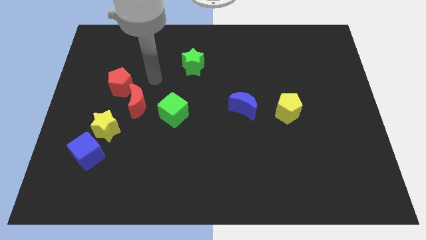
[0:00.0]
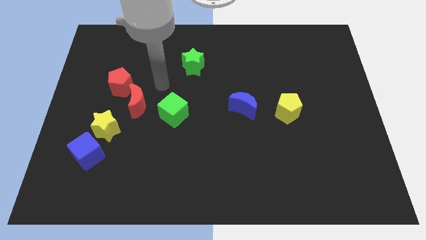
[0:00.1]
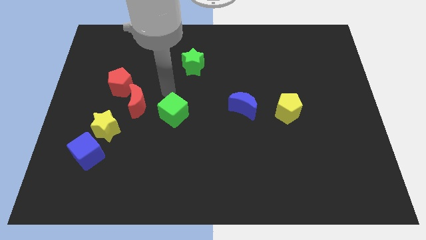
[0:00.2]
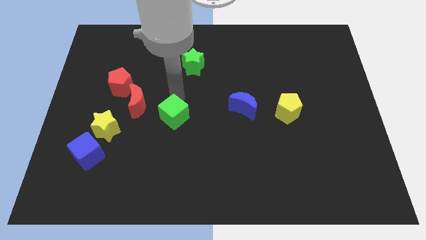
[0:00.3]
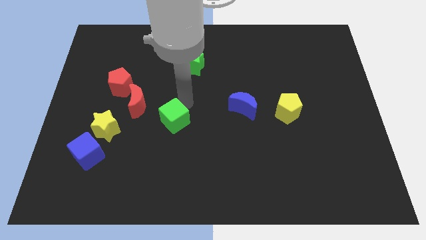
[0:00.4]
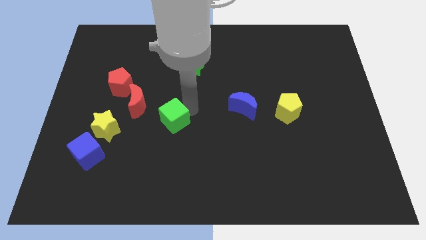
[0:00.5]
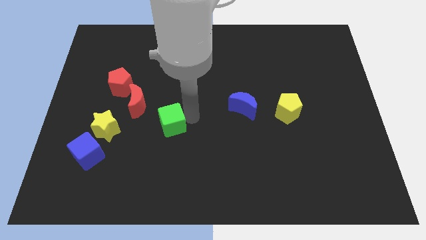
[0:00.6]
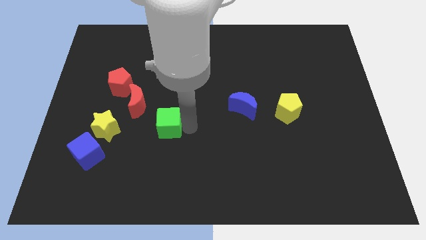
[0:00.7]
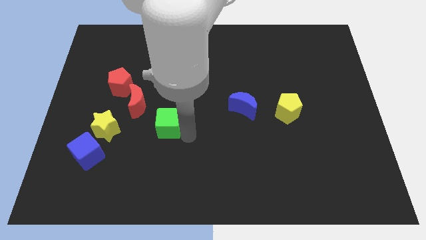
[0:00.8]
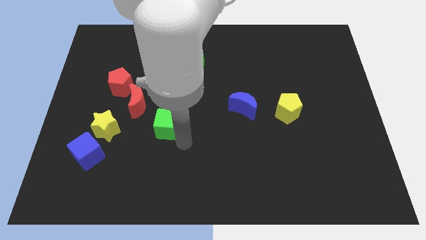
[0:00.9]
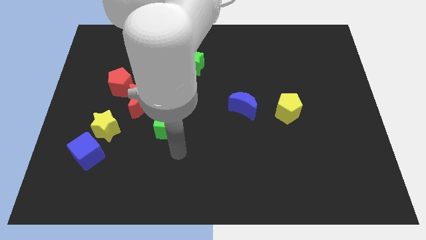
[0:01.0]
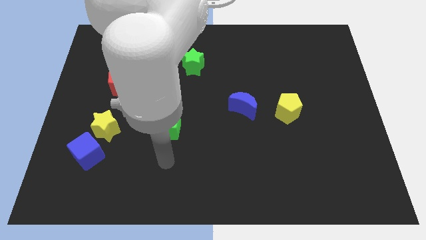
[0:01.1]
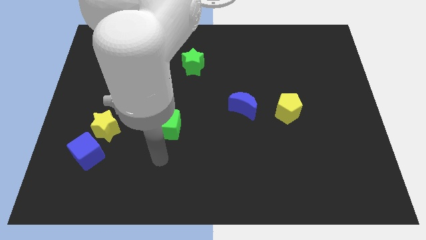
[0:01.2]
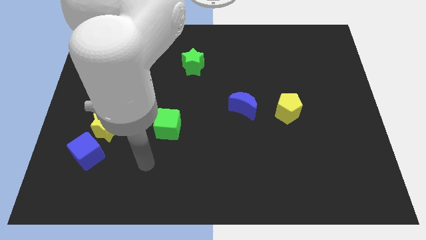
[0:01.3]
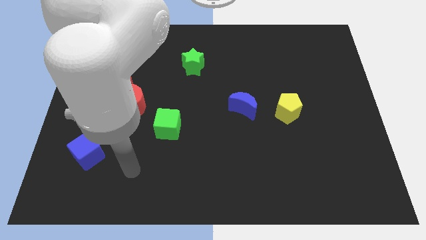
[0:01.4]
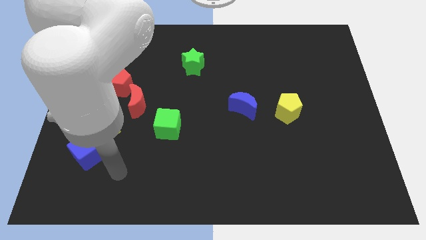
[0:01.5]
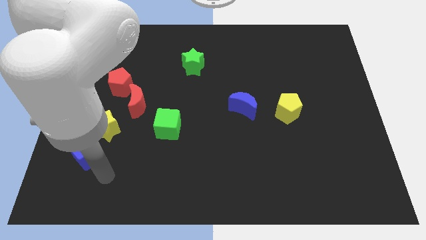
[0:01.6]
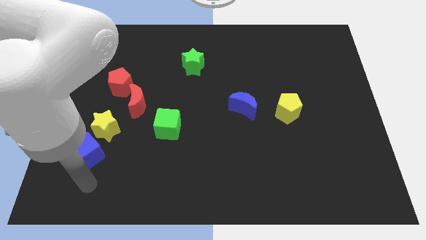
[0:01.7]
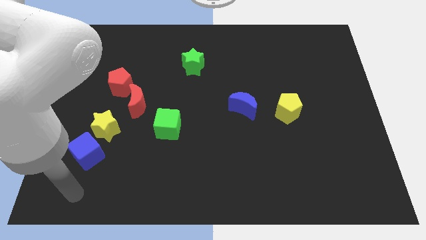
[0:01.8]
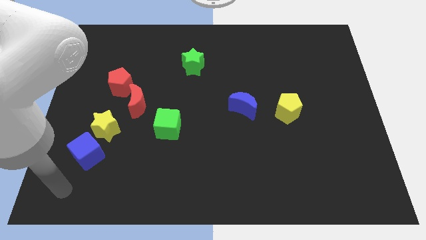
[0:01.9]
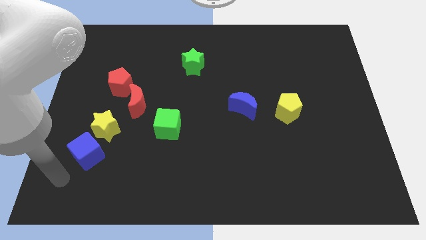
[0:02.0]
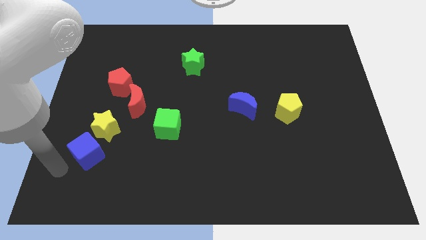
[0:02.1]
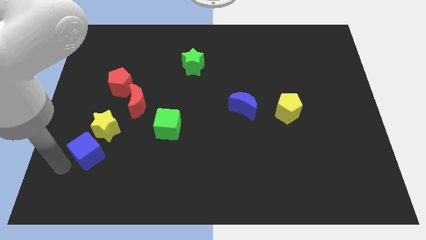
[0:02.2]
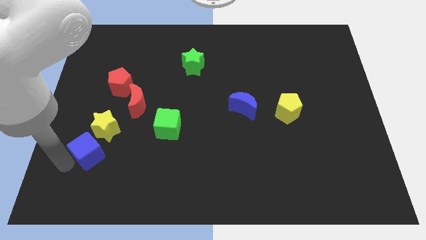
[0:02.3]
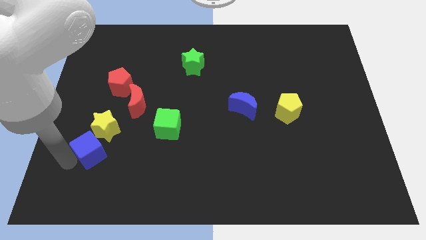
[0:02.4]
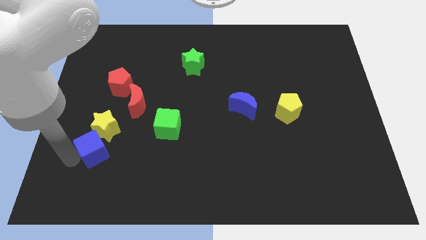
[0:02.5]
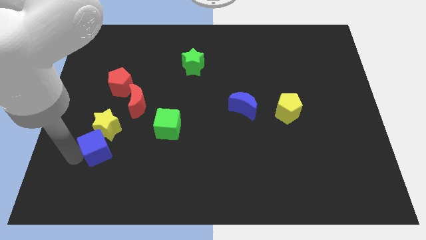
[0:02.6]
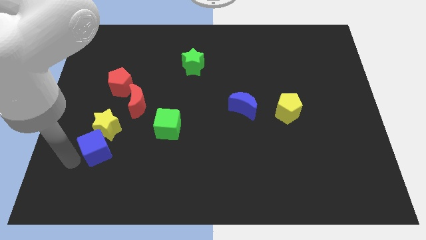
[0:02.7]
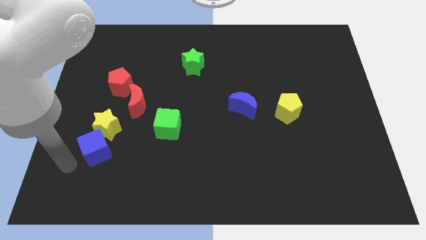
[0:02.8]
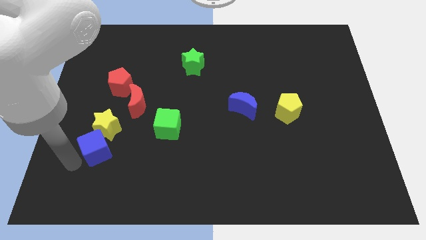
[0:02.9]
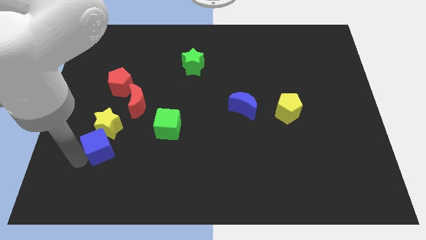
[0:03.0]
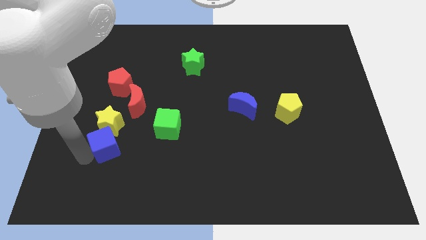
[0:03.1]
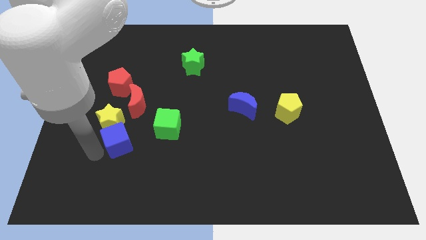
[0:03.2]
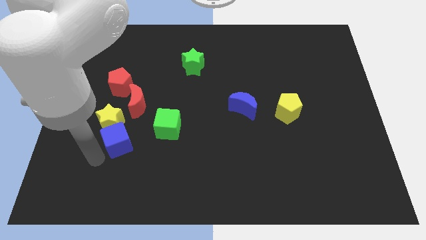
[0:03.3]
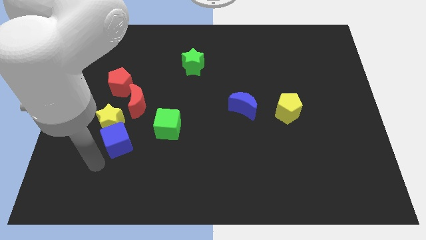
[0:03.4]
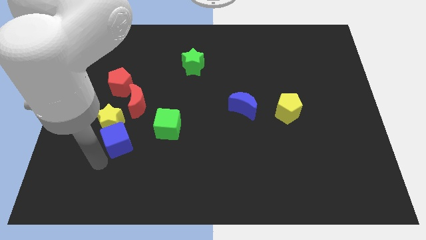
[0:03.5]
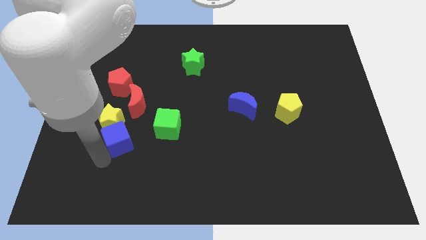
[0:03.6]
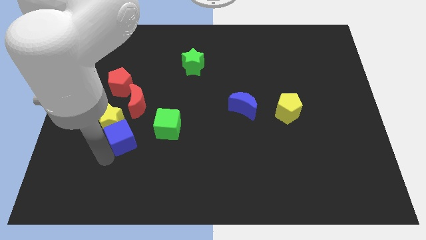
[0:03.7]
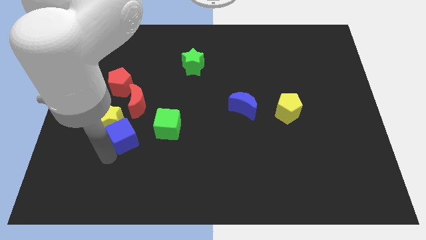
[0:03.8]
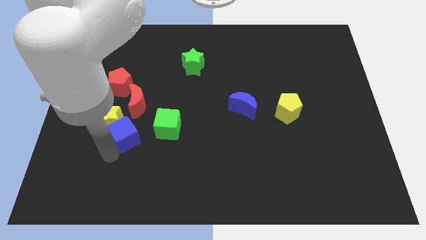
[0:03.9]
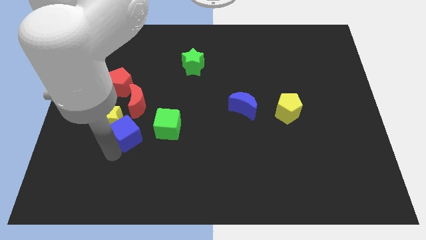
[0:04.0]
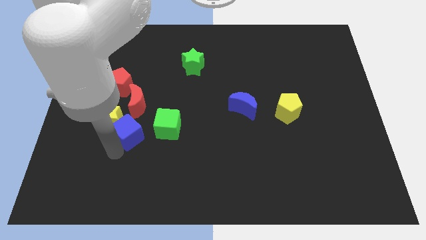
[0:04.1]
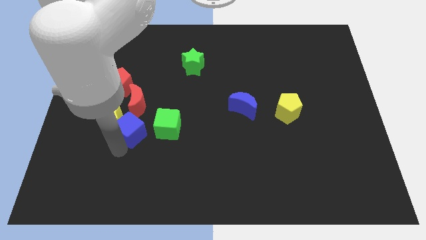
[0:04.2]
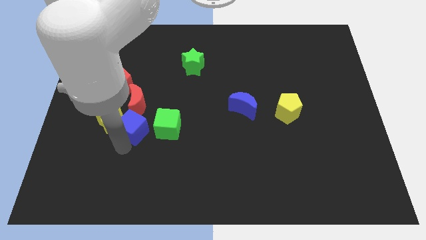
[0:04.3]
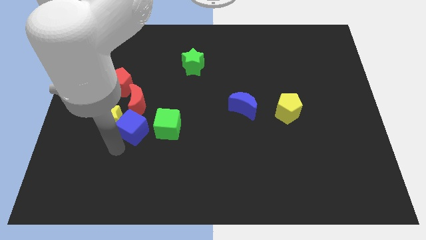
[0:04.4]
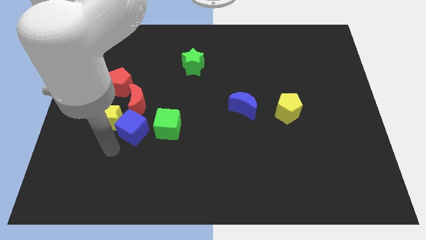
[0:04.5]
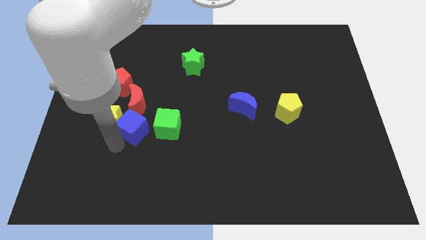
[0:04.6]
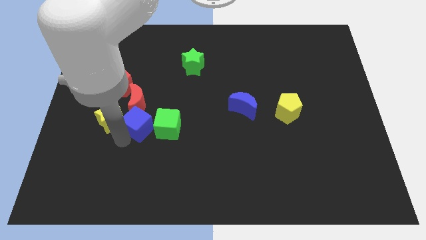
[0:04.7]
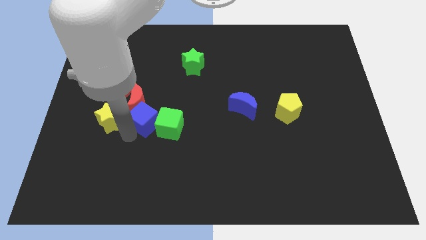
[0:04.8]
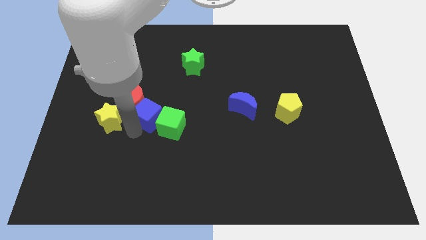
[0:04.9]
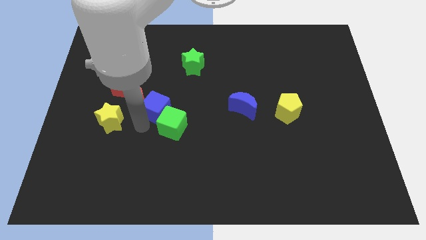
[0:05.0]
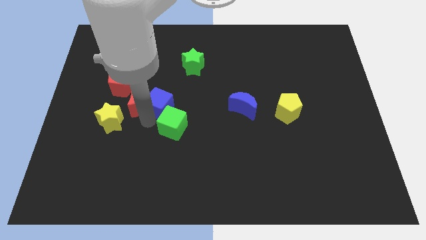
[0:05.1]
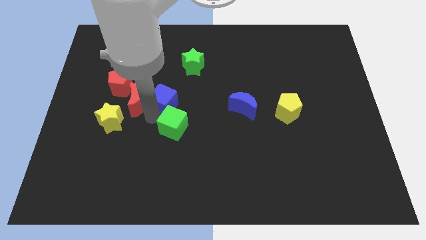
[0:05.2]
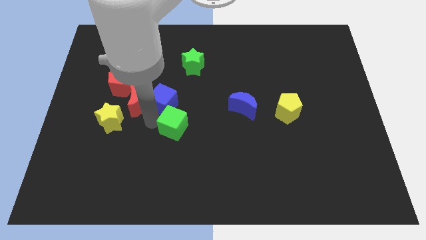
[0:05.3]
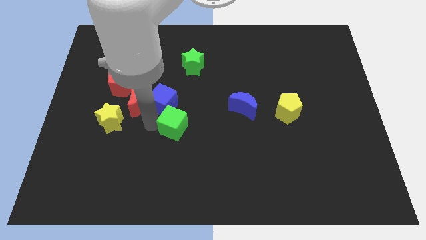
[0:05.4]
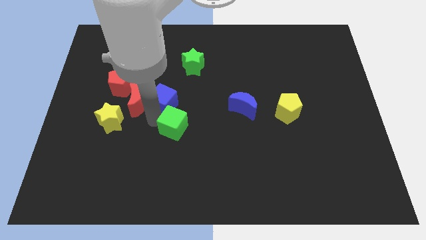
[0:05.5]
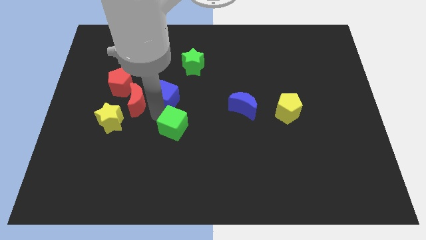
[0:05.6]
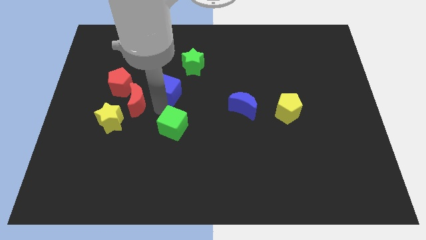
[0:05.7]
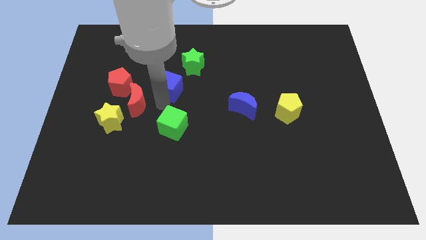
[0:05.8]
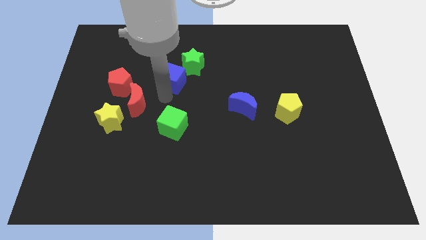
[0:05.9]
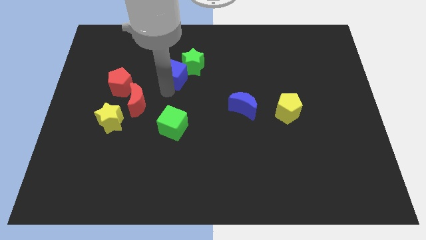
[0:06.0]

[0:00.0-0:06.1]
put the blue cube to the green star

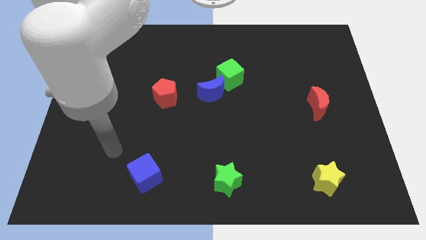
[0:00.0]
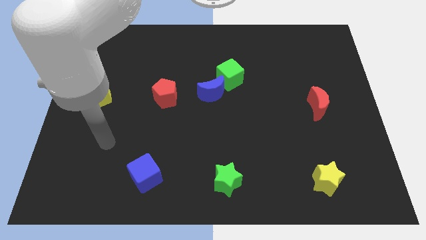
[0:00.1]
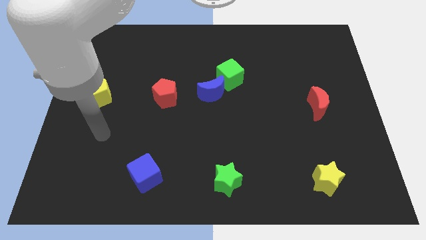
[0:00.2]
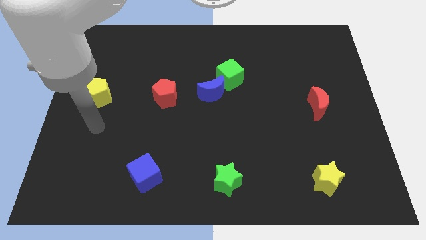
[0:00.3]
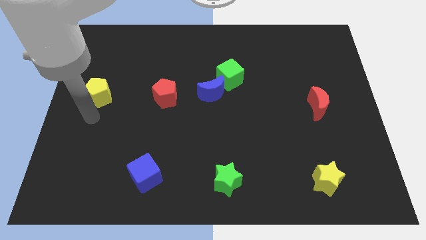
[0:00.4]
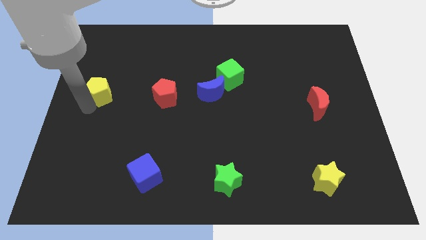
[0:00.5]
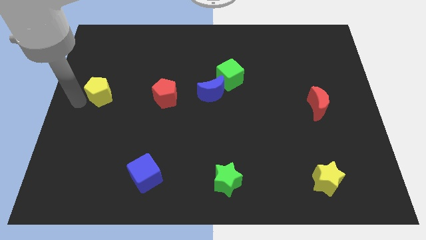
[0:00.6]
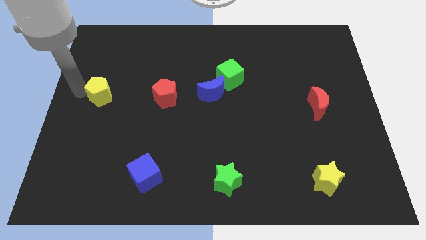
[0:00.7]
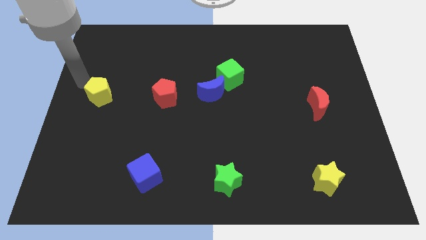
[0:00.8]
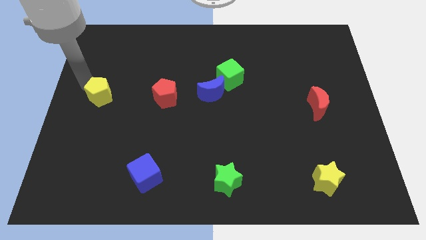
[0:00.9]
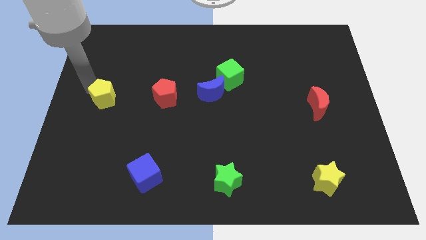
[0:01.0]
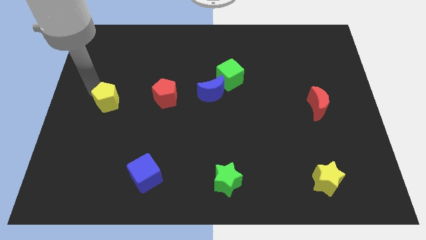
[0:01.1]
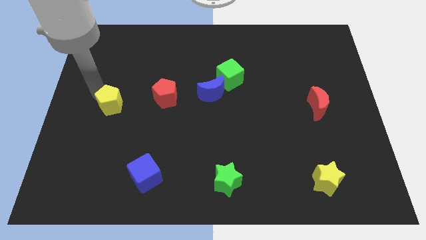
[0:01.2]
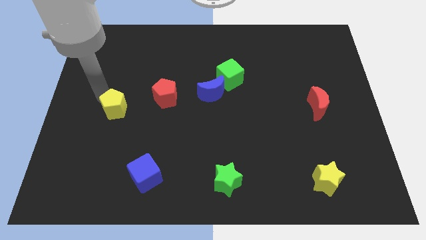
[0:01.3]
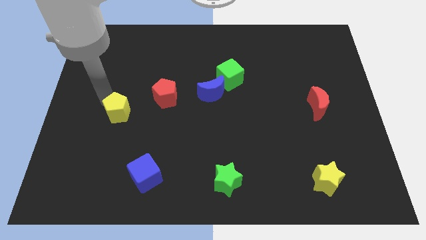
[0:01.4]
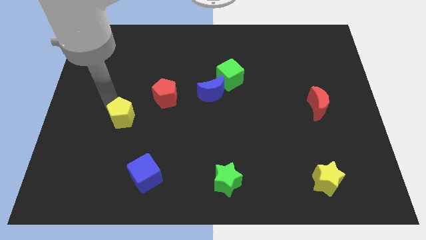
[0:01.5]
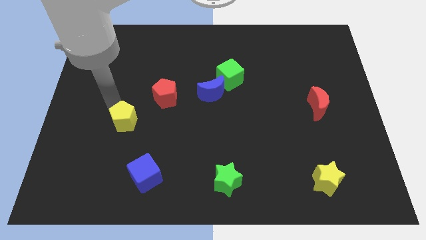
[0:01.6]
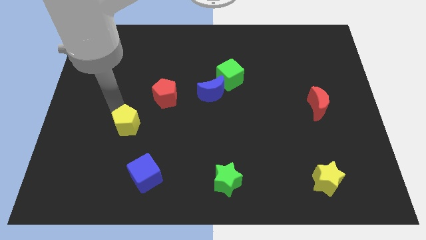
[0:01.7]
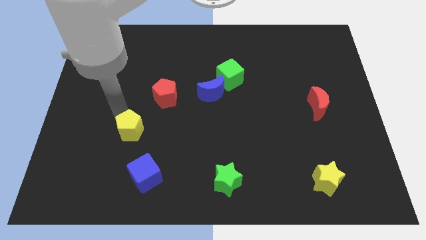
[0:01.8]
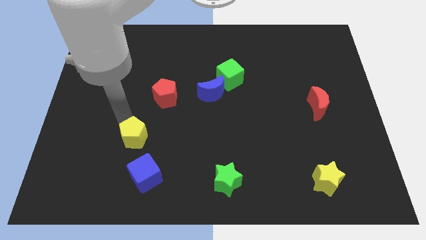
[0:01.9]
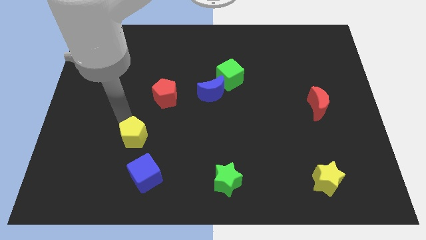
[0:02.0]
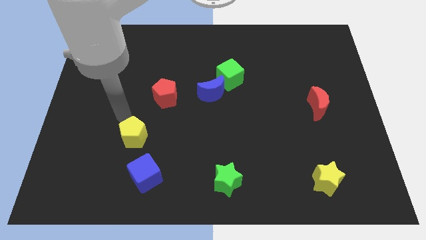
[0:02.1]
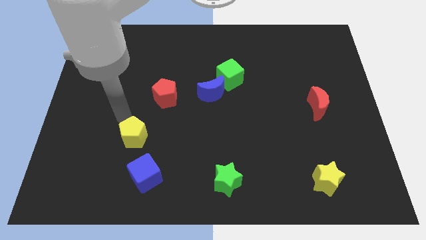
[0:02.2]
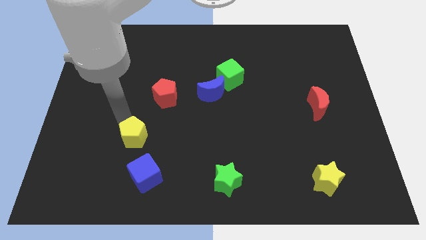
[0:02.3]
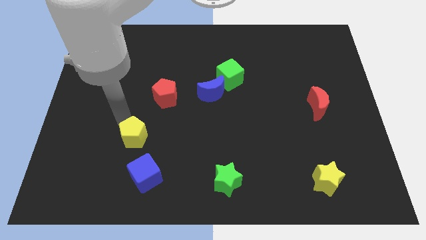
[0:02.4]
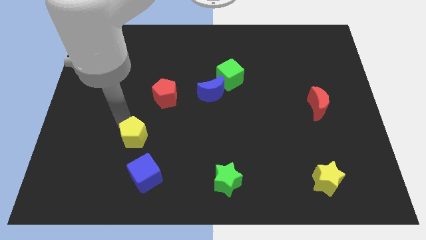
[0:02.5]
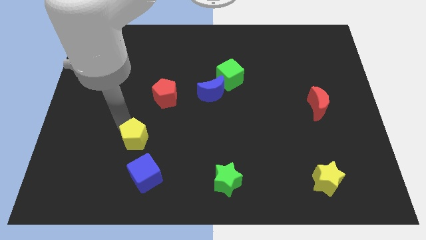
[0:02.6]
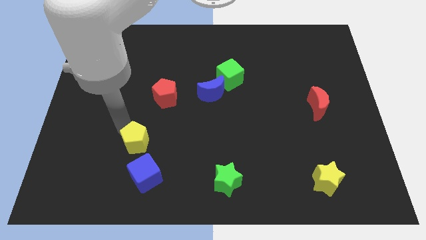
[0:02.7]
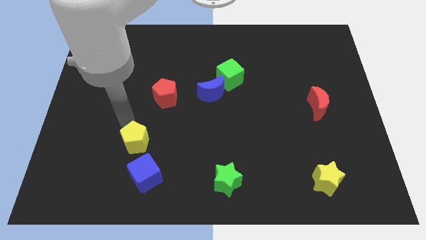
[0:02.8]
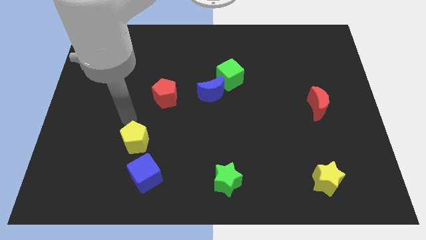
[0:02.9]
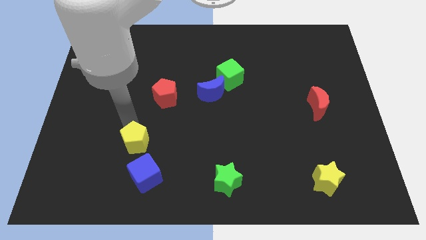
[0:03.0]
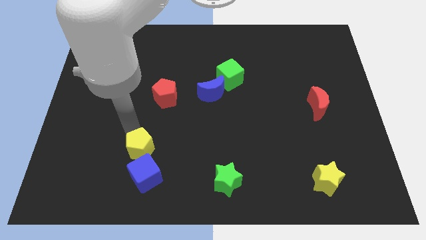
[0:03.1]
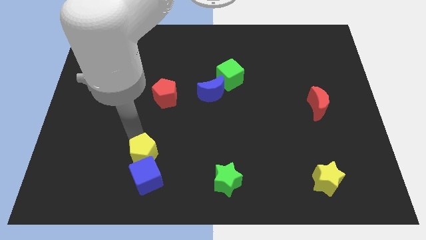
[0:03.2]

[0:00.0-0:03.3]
push the yellow pentagon towards the blue cube
